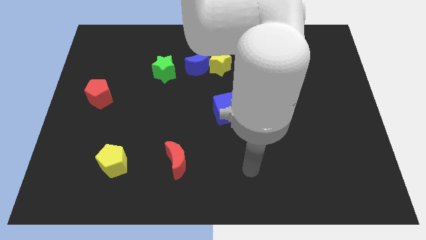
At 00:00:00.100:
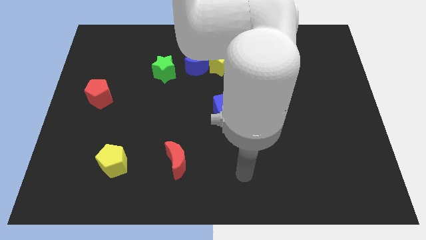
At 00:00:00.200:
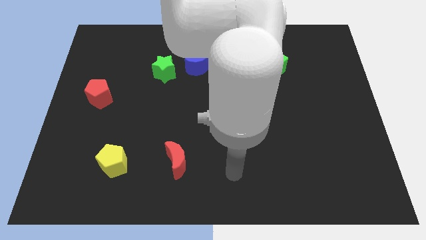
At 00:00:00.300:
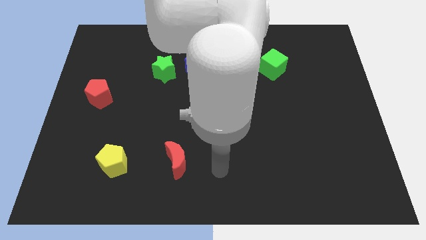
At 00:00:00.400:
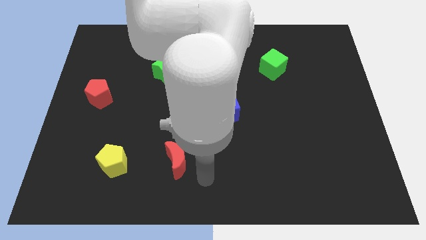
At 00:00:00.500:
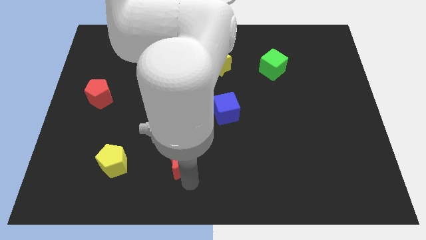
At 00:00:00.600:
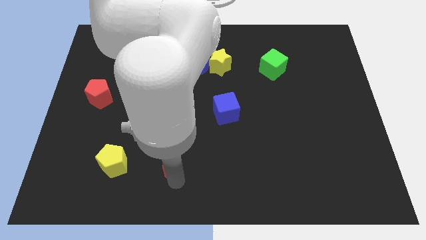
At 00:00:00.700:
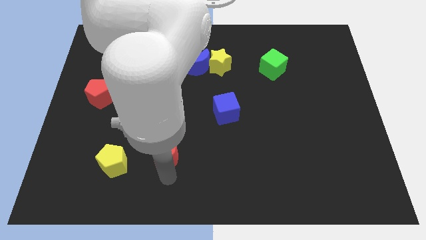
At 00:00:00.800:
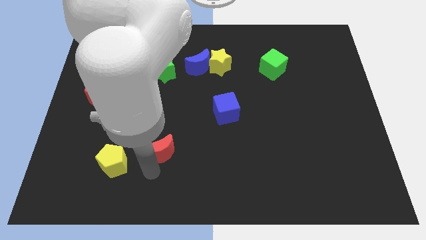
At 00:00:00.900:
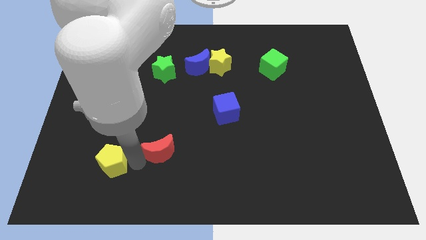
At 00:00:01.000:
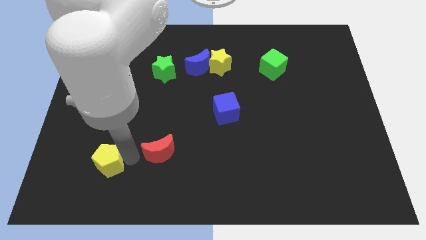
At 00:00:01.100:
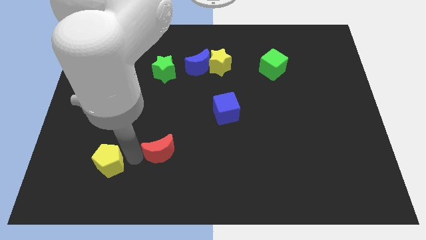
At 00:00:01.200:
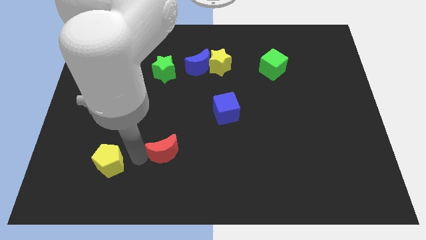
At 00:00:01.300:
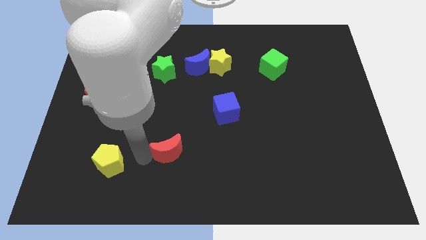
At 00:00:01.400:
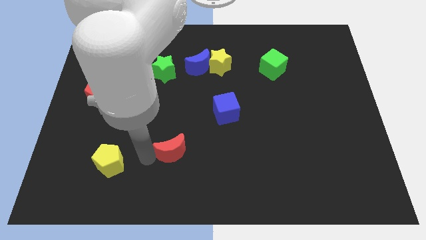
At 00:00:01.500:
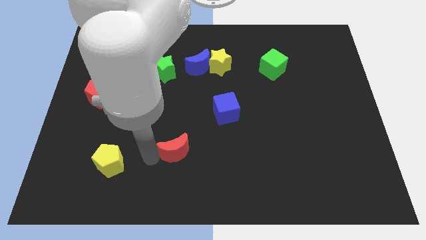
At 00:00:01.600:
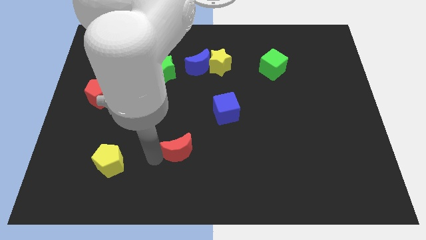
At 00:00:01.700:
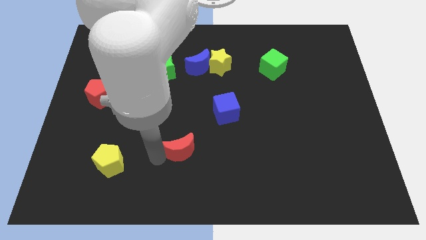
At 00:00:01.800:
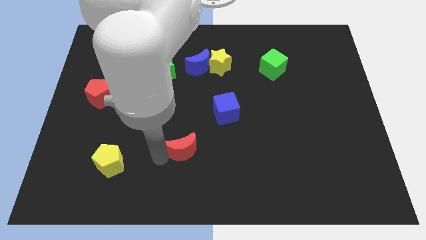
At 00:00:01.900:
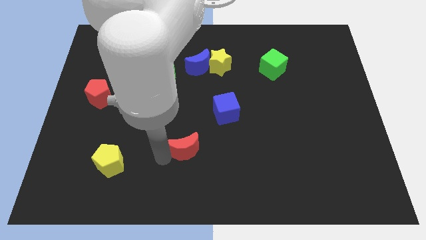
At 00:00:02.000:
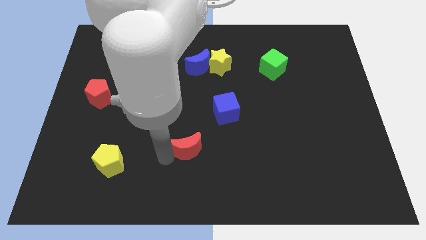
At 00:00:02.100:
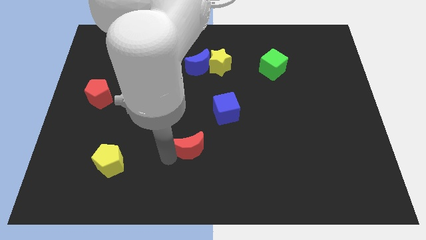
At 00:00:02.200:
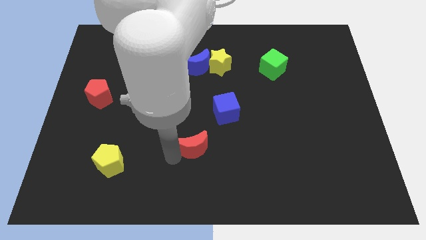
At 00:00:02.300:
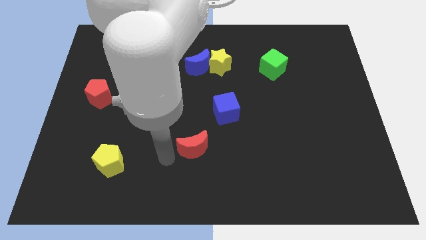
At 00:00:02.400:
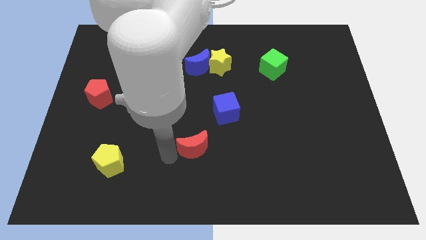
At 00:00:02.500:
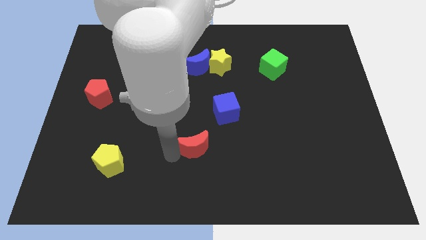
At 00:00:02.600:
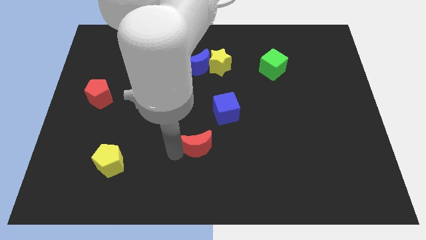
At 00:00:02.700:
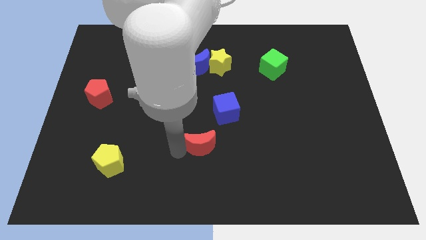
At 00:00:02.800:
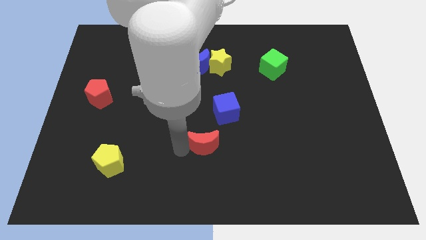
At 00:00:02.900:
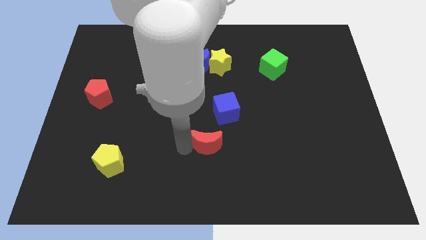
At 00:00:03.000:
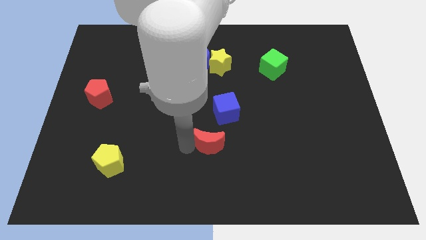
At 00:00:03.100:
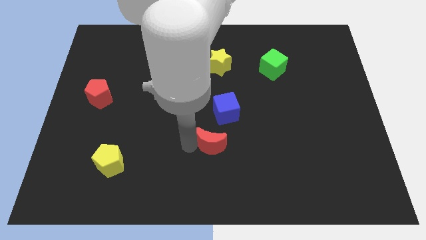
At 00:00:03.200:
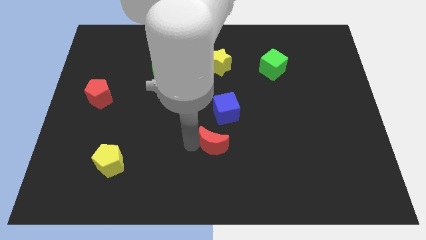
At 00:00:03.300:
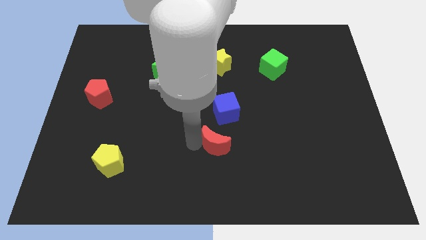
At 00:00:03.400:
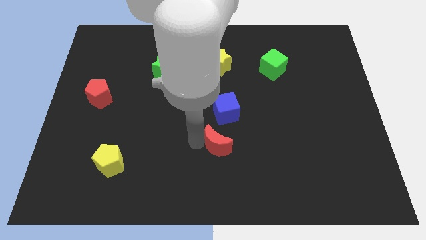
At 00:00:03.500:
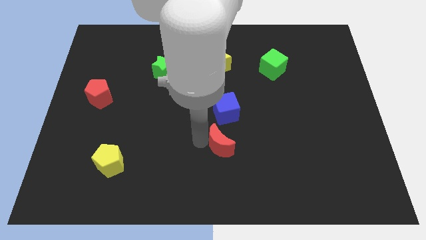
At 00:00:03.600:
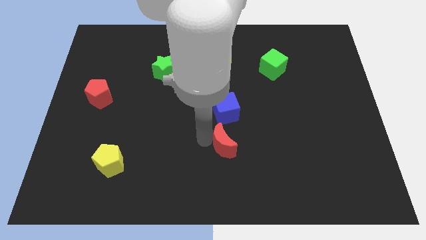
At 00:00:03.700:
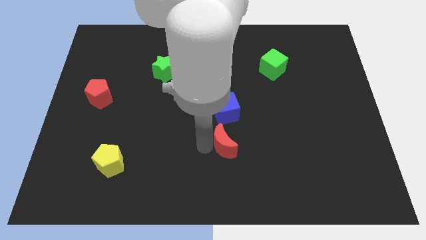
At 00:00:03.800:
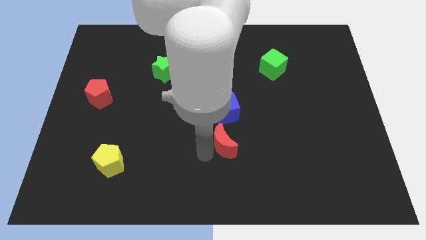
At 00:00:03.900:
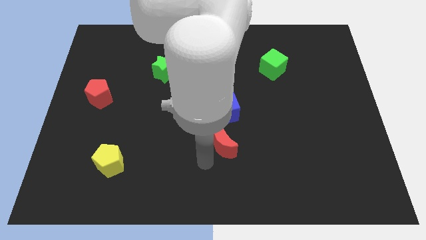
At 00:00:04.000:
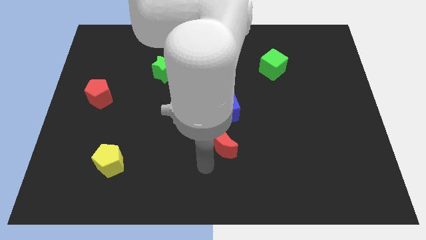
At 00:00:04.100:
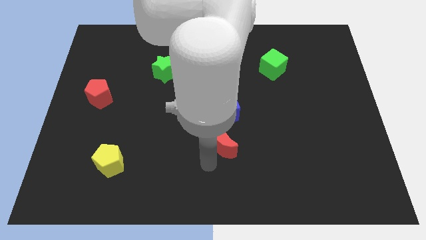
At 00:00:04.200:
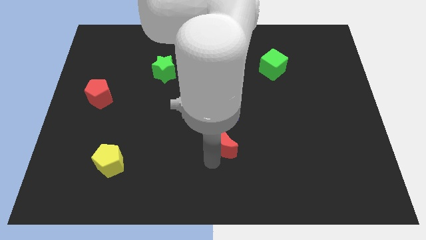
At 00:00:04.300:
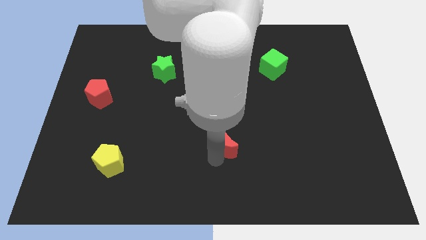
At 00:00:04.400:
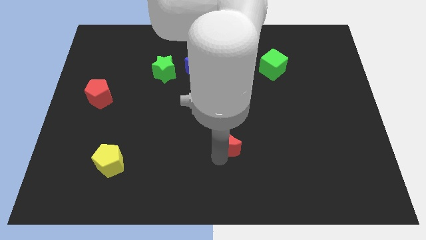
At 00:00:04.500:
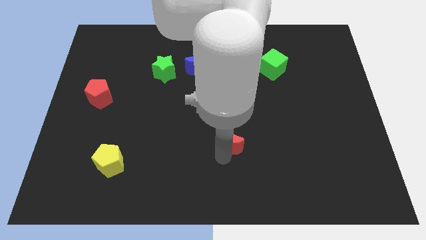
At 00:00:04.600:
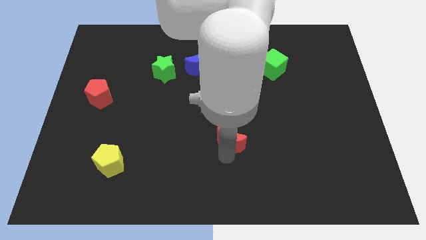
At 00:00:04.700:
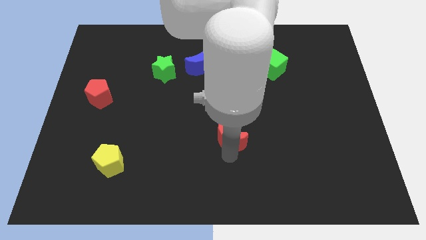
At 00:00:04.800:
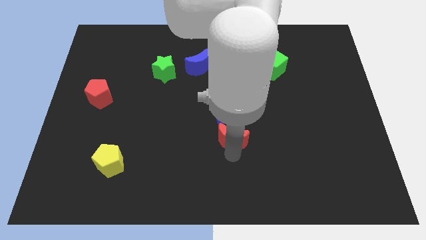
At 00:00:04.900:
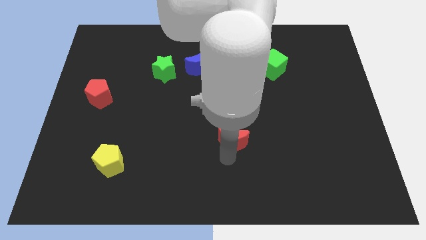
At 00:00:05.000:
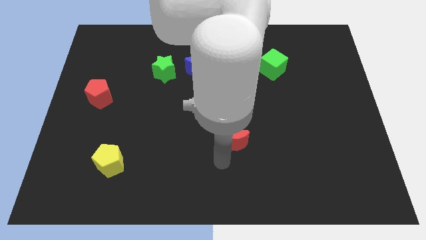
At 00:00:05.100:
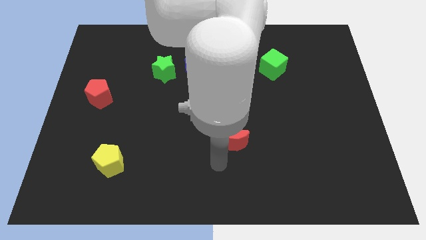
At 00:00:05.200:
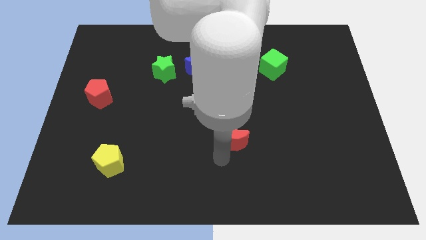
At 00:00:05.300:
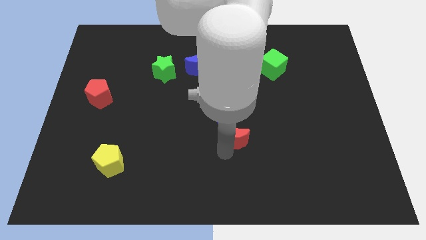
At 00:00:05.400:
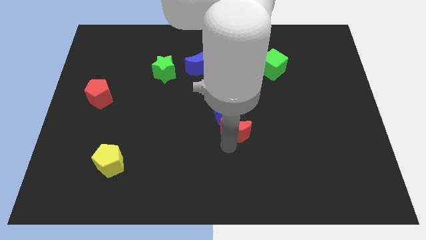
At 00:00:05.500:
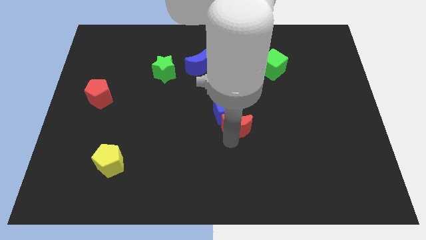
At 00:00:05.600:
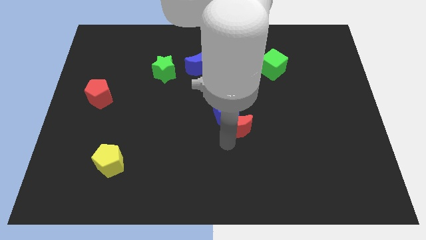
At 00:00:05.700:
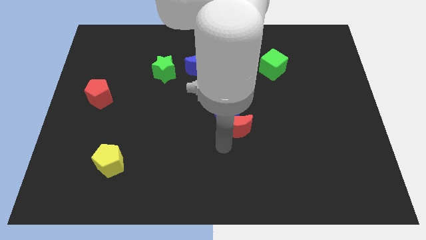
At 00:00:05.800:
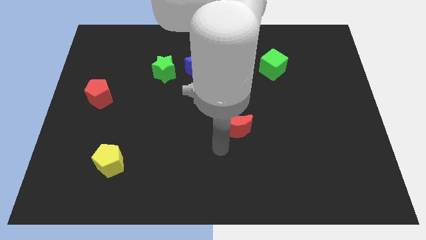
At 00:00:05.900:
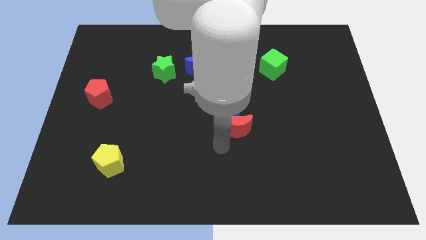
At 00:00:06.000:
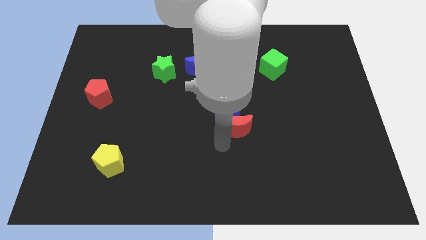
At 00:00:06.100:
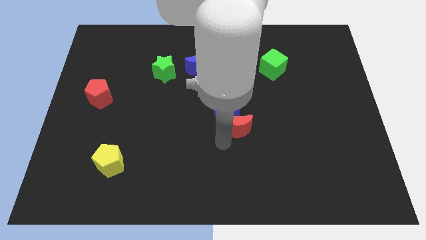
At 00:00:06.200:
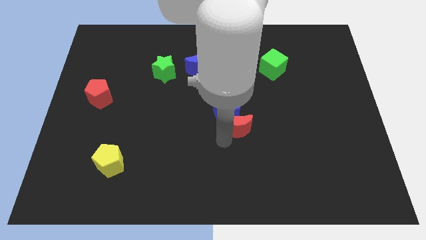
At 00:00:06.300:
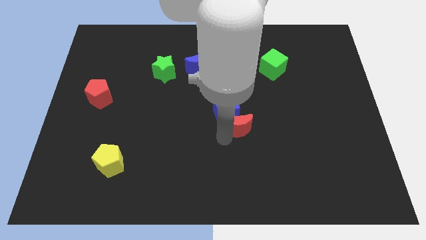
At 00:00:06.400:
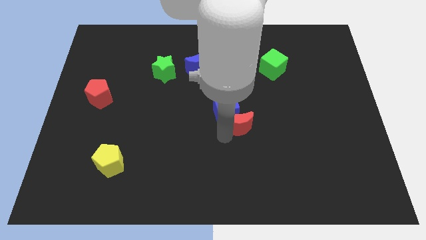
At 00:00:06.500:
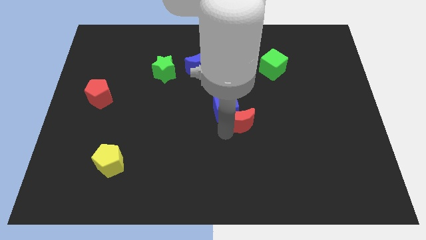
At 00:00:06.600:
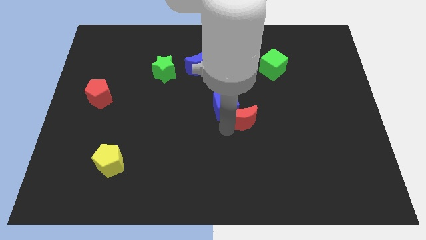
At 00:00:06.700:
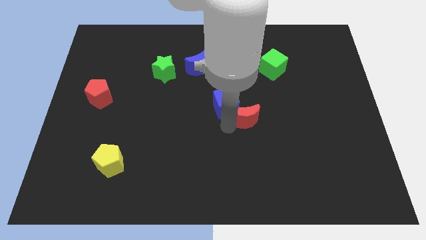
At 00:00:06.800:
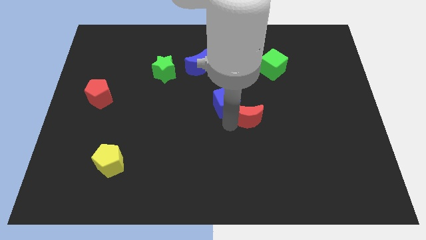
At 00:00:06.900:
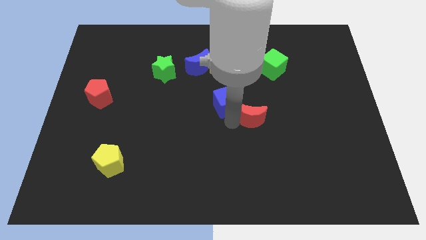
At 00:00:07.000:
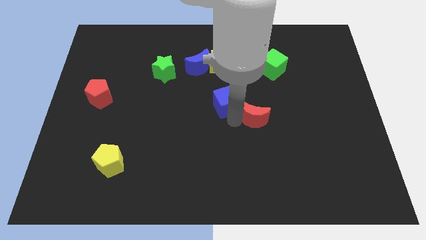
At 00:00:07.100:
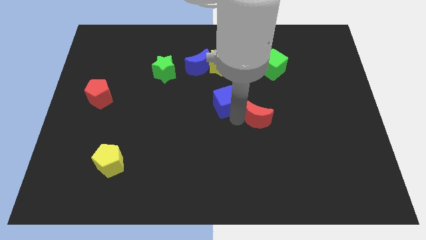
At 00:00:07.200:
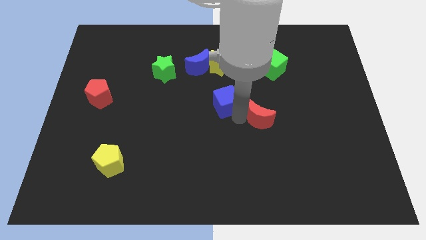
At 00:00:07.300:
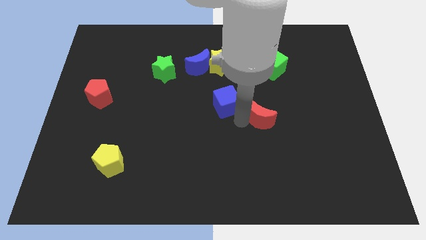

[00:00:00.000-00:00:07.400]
push the red moon diagonally upwards and to the right

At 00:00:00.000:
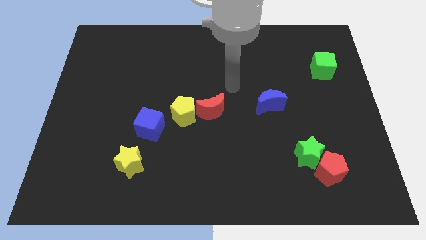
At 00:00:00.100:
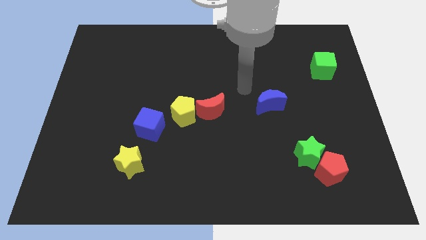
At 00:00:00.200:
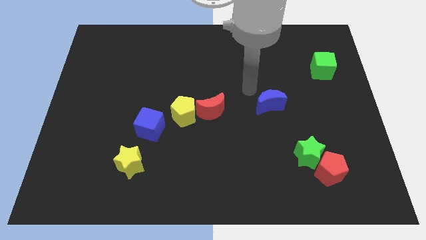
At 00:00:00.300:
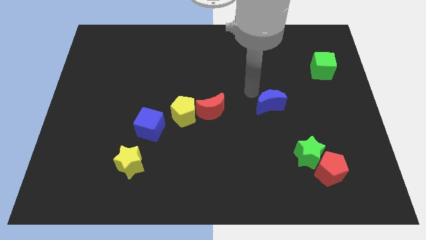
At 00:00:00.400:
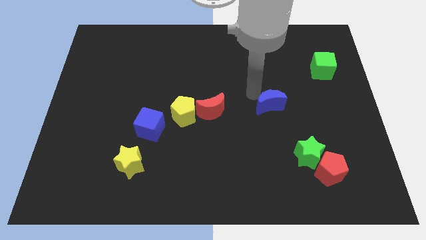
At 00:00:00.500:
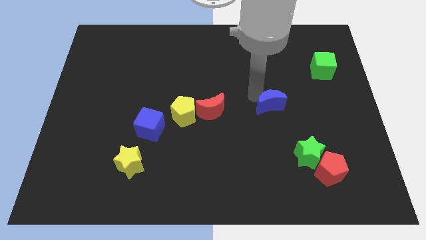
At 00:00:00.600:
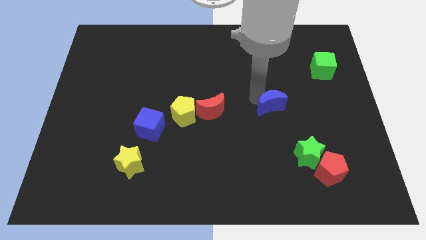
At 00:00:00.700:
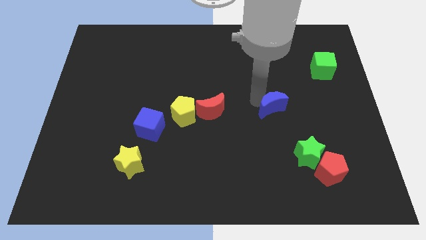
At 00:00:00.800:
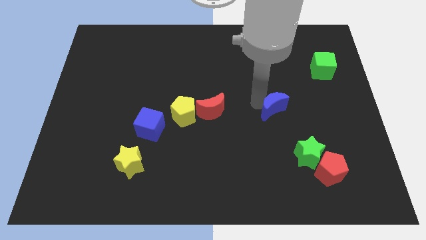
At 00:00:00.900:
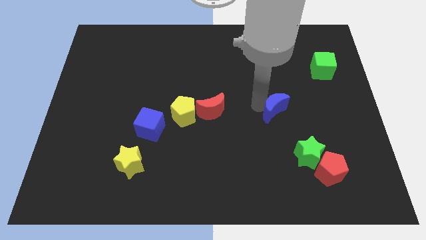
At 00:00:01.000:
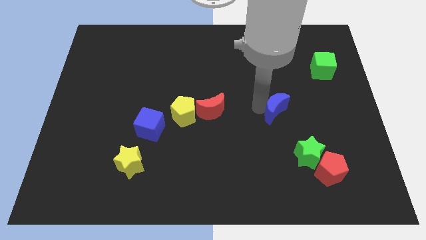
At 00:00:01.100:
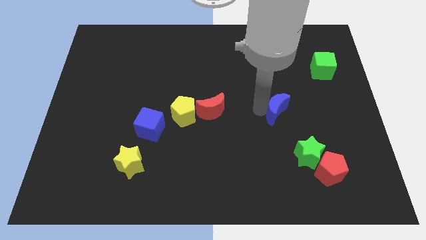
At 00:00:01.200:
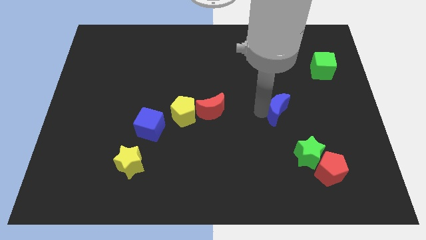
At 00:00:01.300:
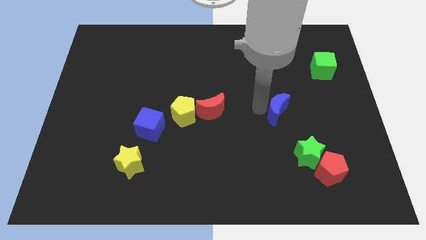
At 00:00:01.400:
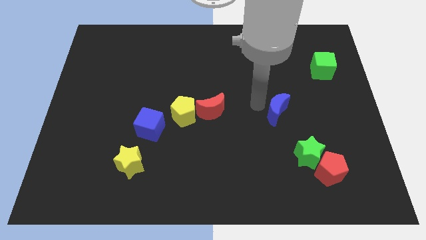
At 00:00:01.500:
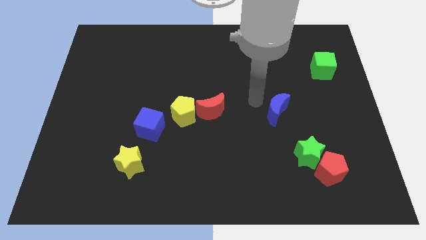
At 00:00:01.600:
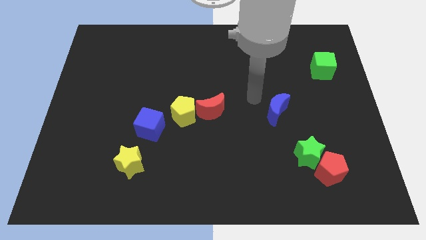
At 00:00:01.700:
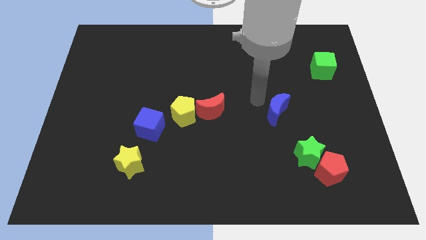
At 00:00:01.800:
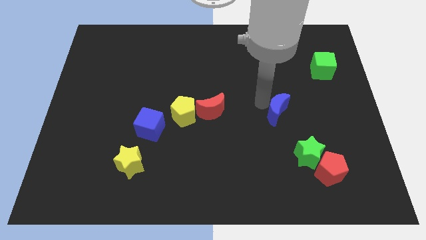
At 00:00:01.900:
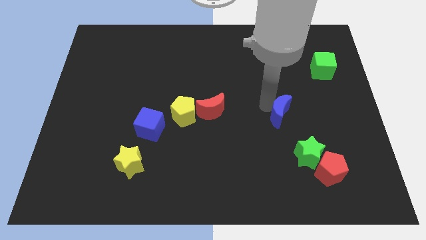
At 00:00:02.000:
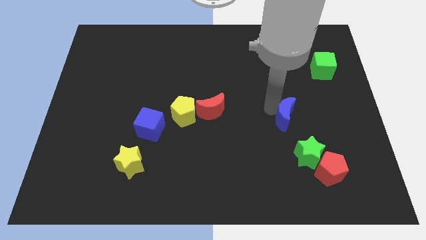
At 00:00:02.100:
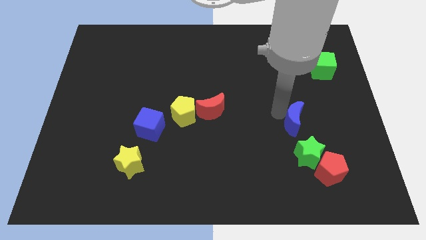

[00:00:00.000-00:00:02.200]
move the blue moon diagonally down and right a bit
